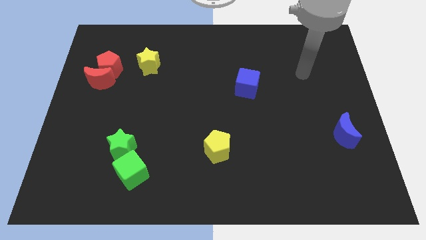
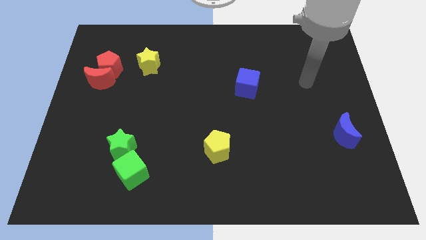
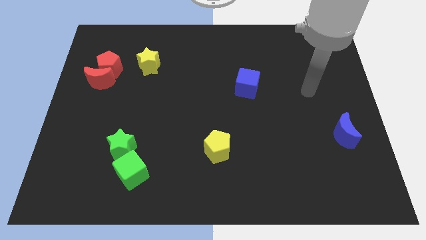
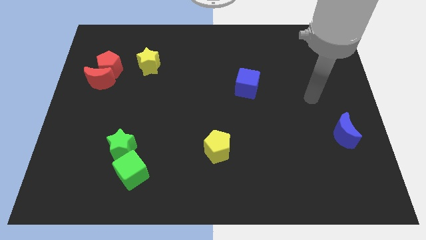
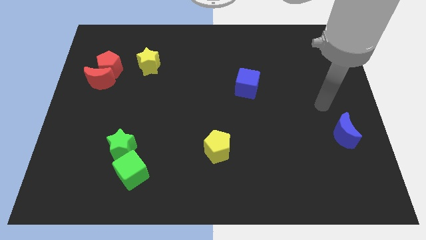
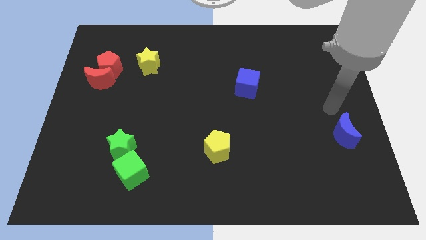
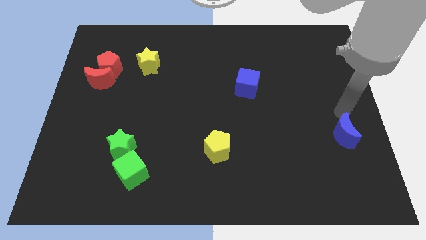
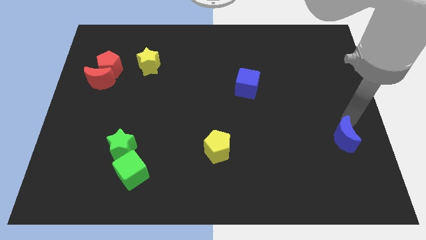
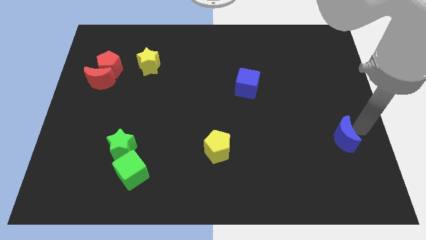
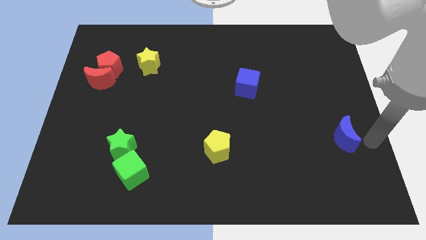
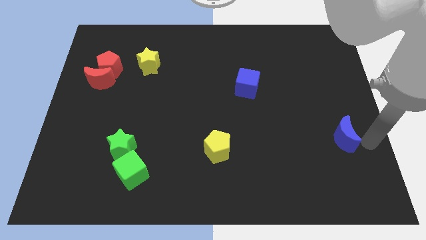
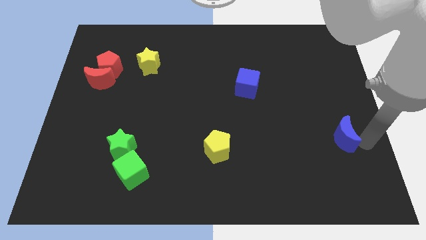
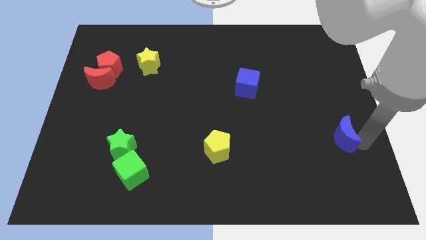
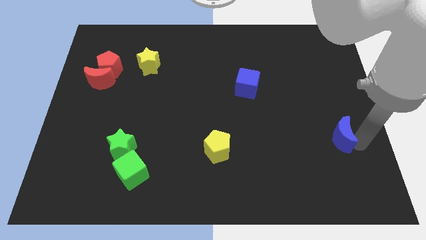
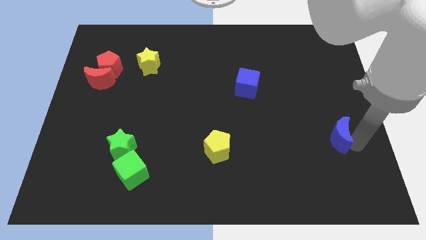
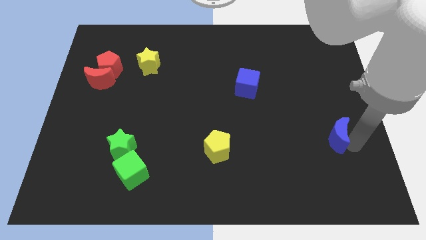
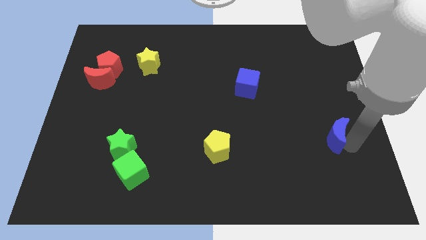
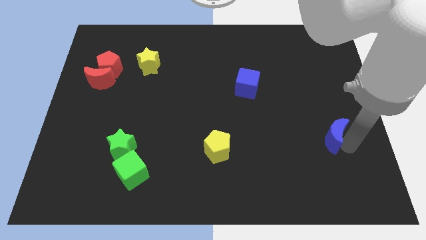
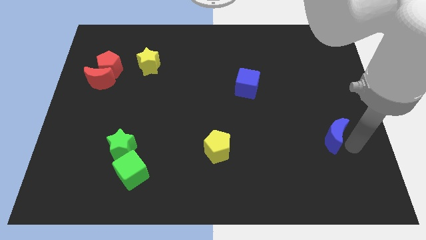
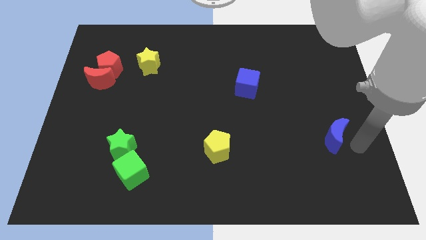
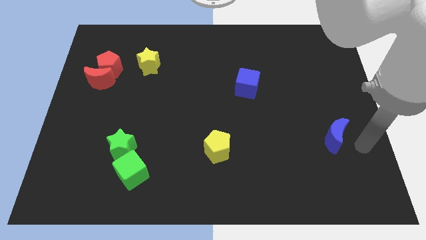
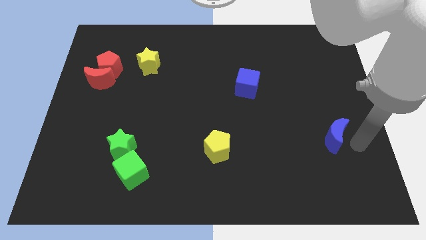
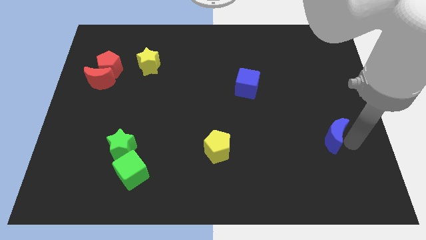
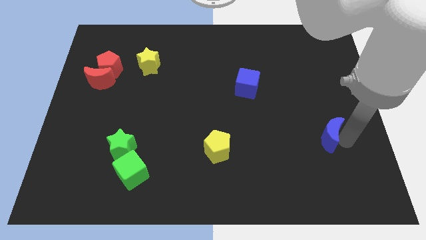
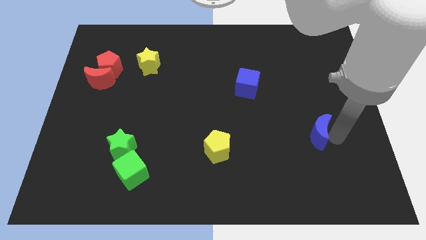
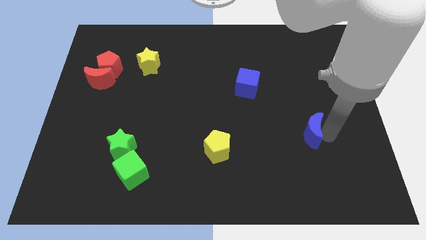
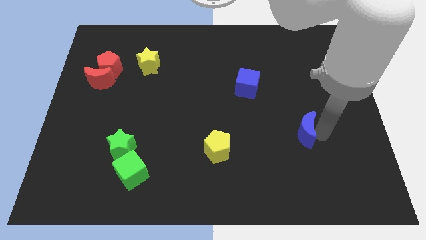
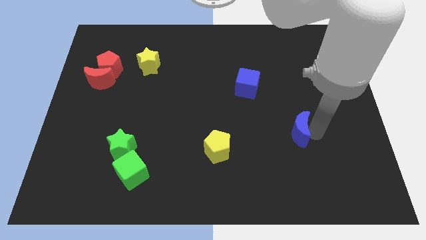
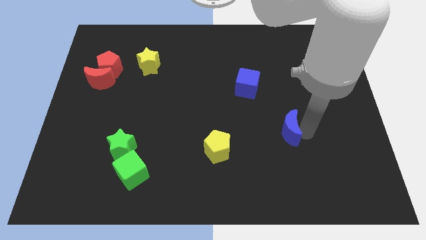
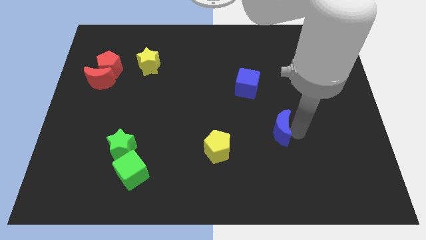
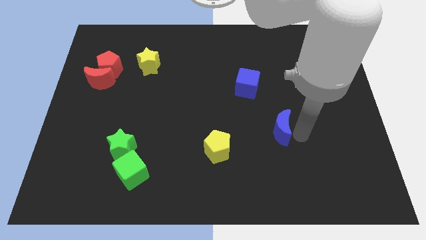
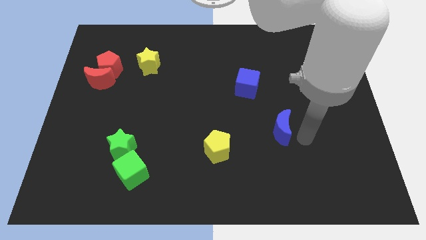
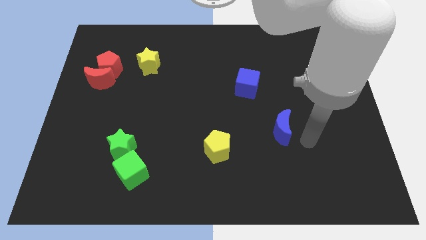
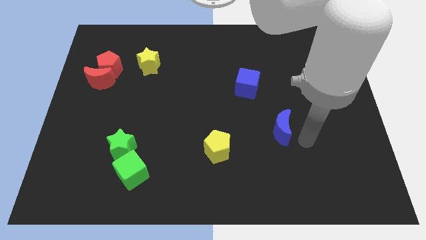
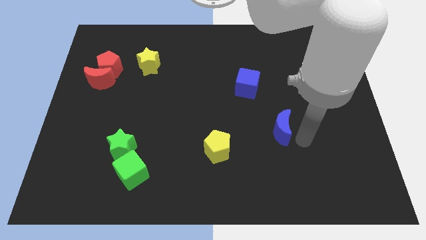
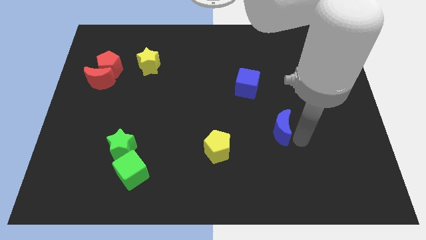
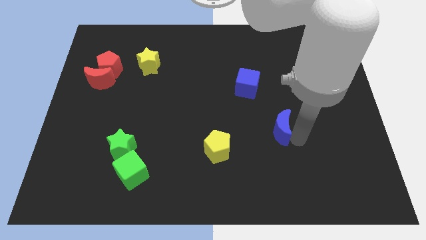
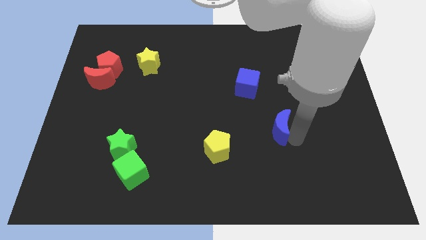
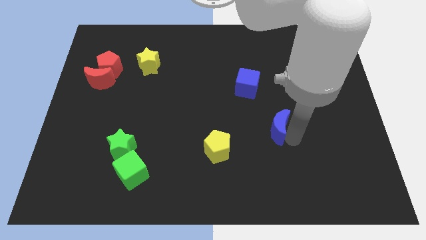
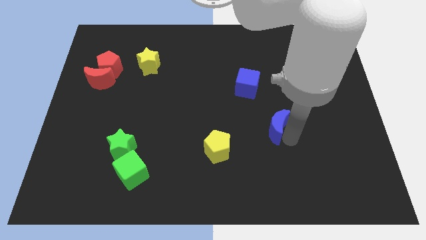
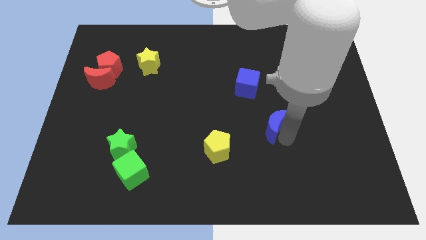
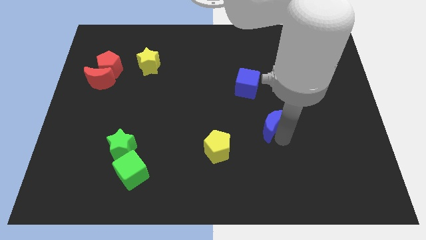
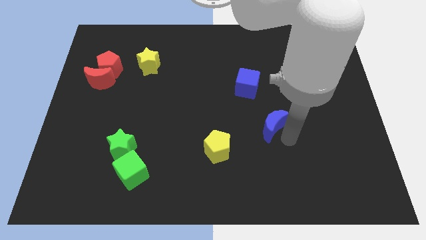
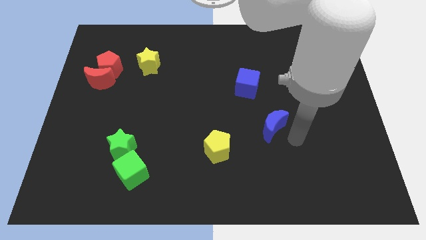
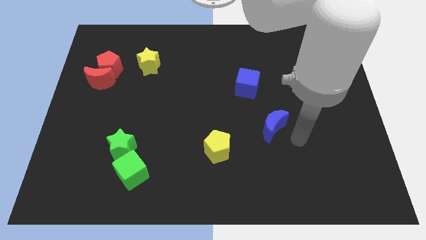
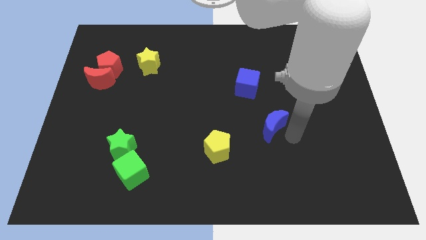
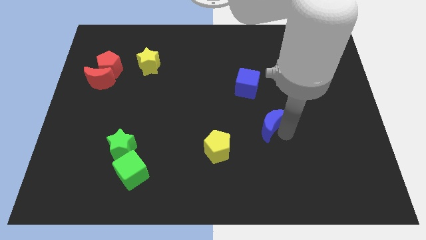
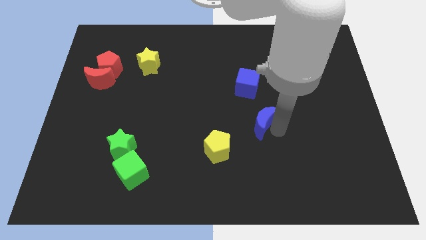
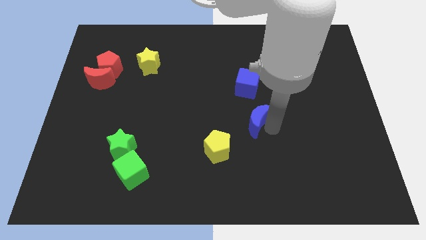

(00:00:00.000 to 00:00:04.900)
push the blue moon to the center of the board

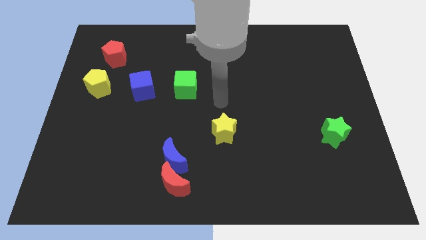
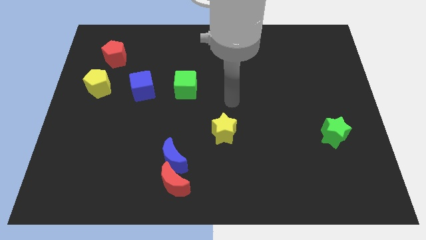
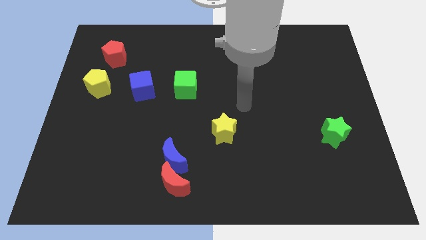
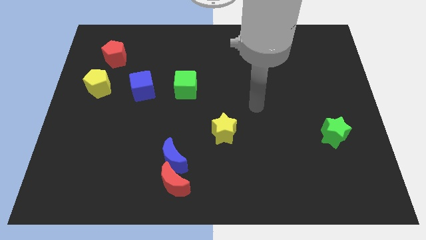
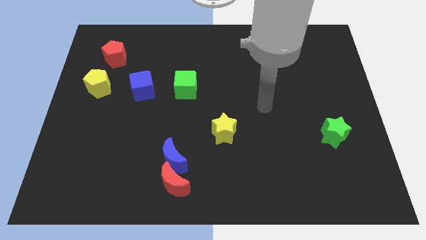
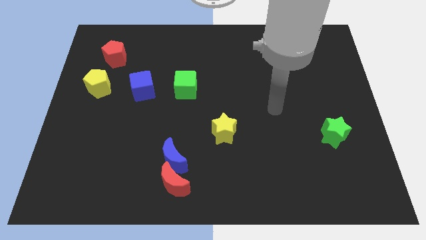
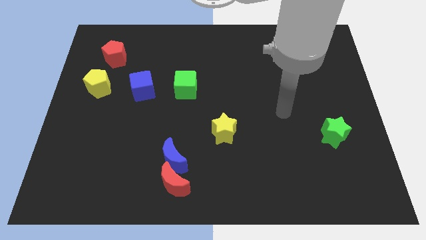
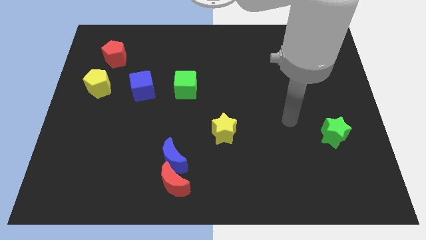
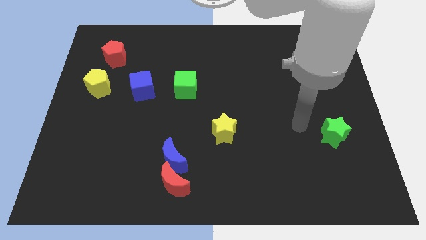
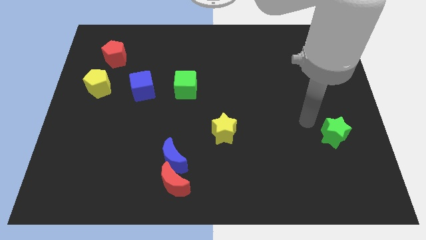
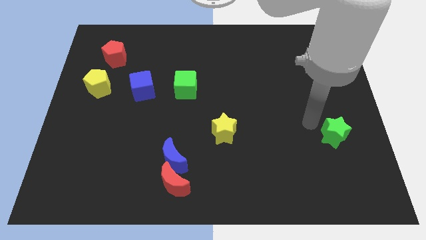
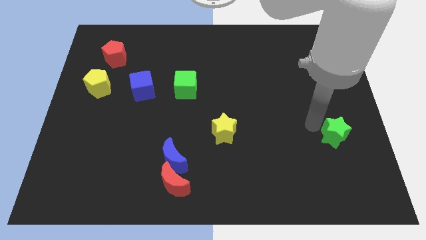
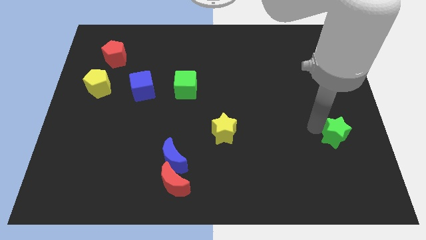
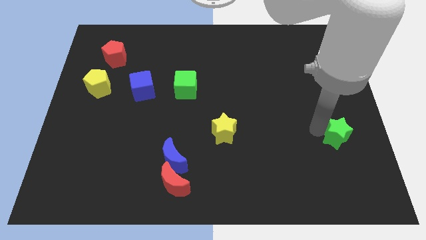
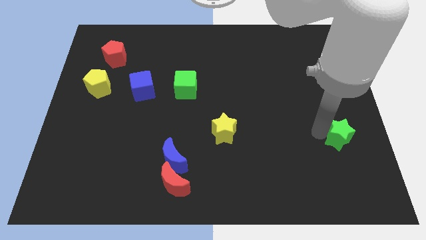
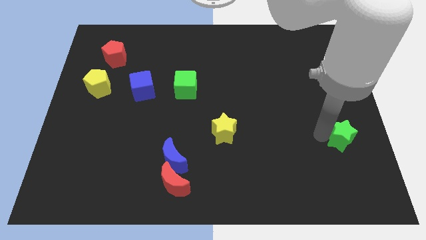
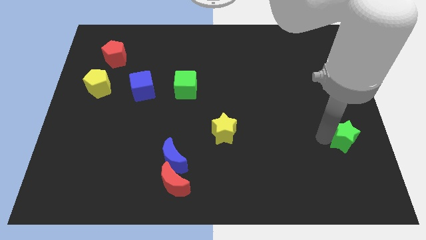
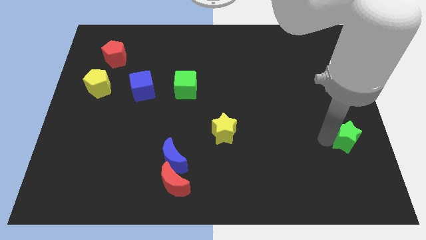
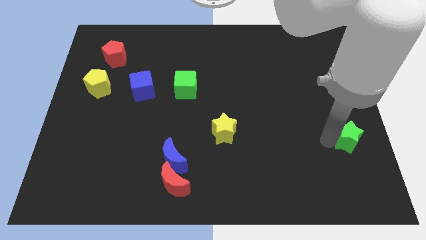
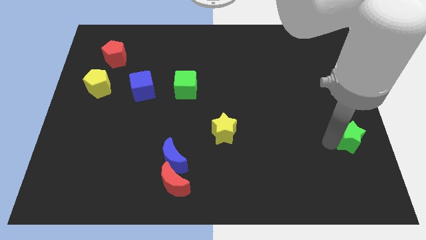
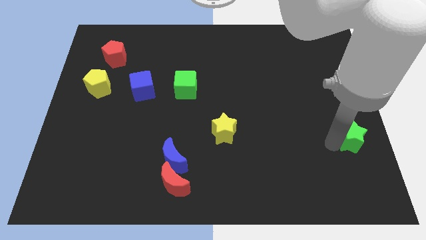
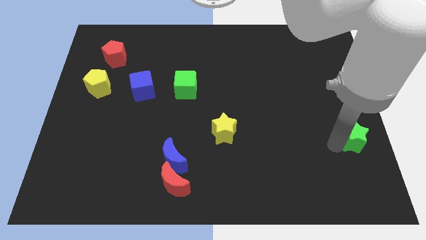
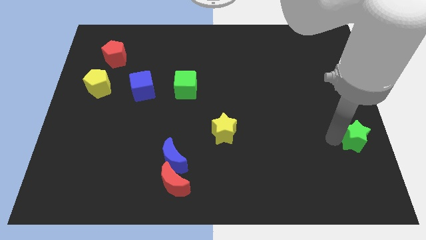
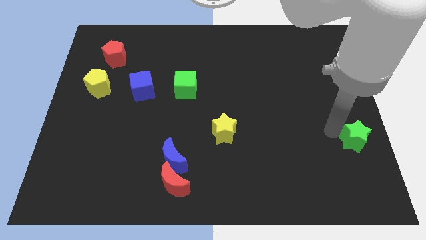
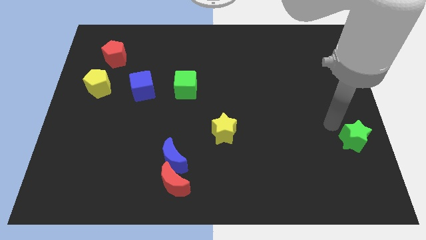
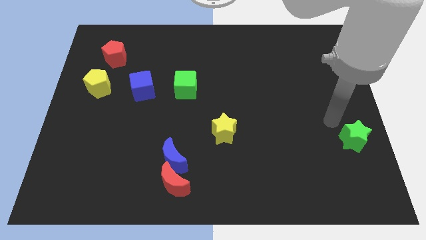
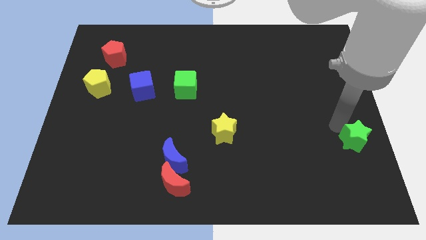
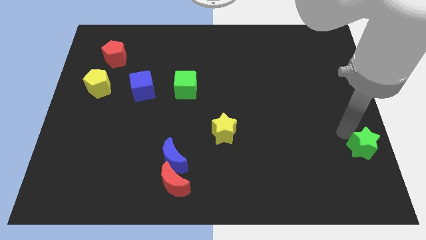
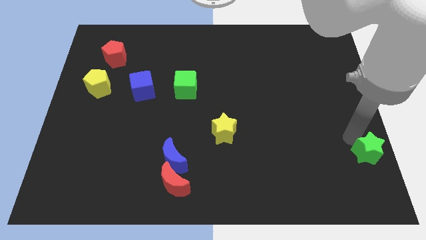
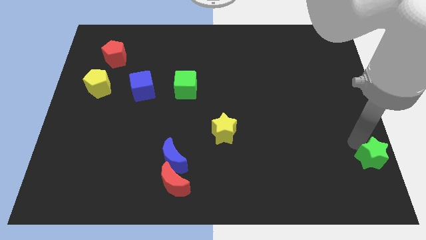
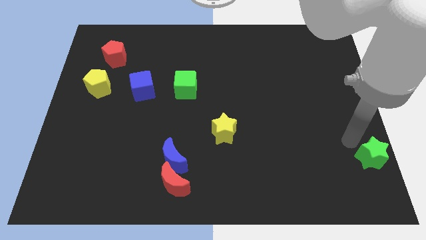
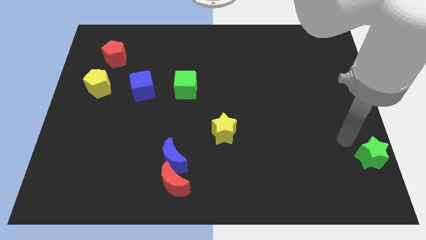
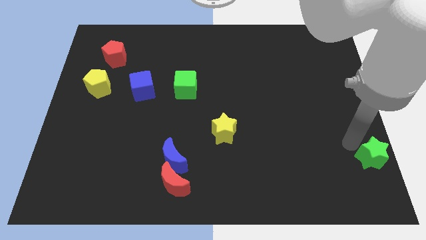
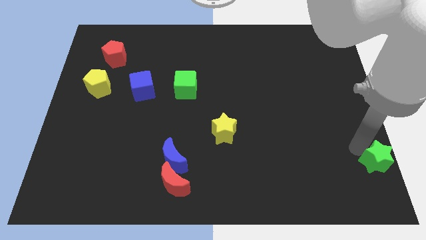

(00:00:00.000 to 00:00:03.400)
move the green star to the bottom right corner
